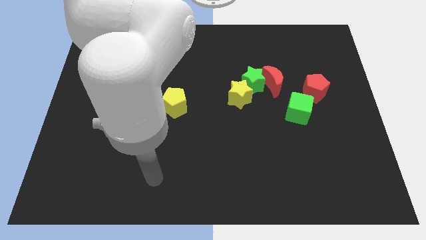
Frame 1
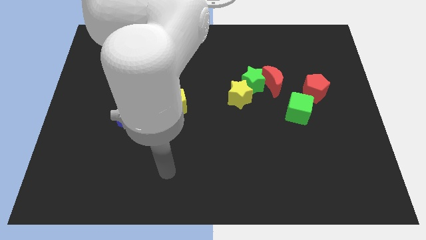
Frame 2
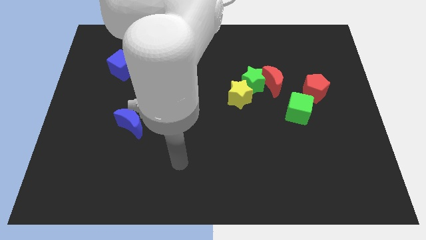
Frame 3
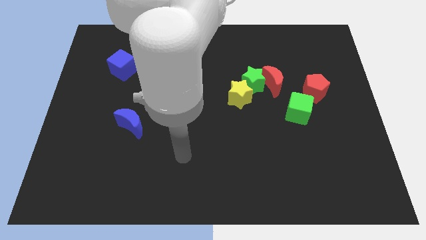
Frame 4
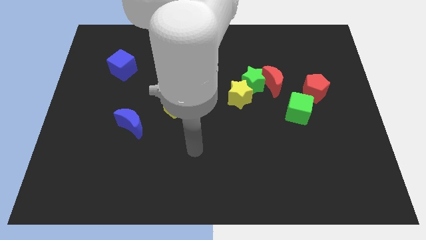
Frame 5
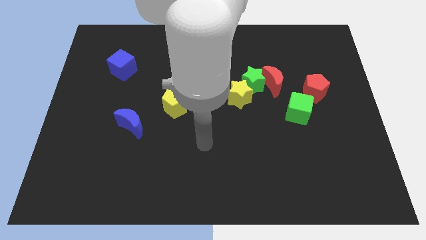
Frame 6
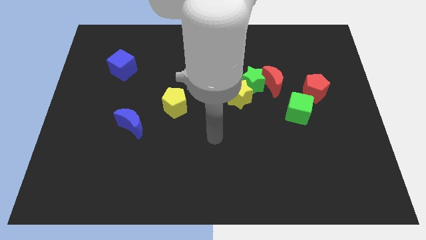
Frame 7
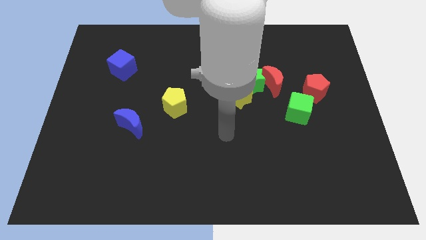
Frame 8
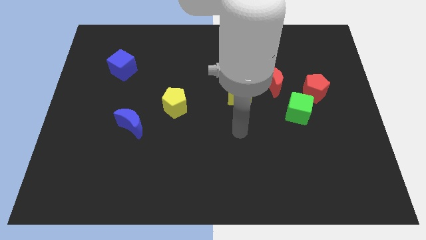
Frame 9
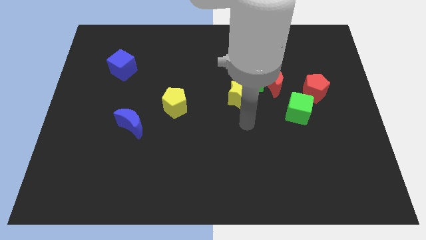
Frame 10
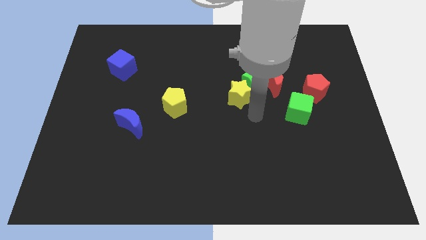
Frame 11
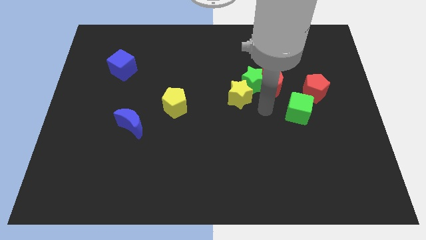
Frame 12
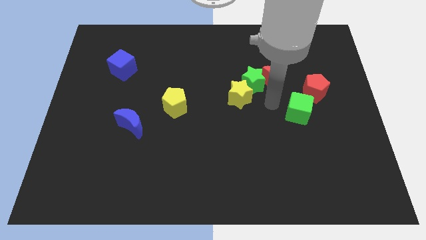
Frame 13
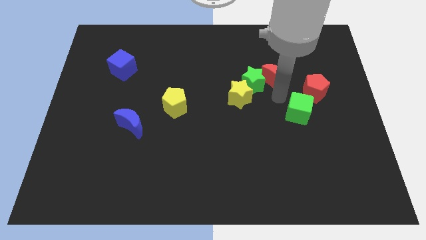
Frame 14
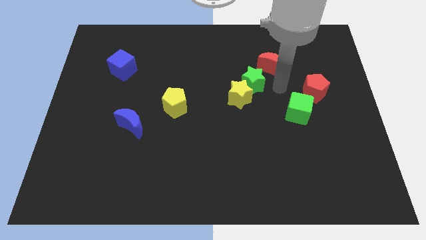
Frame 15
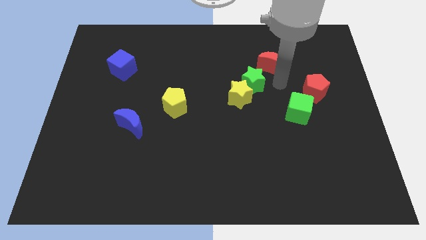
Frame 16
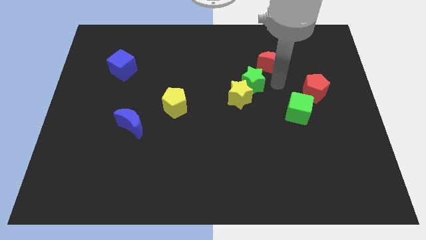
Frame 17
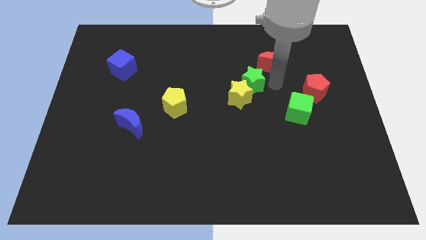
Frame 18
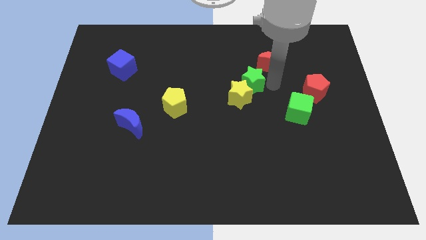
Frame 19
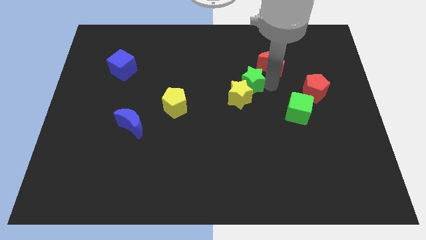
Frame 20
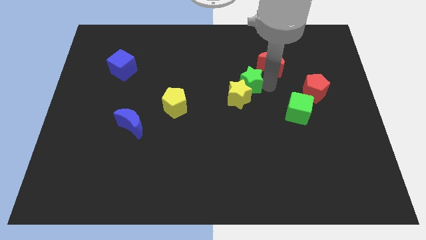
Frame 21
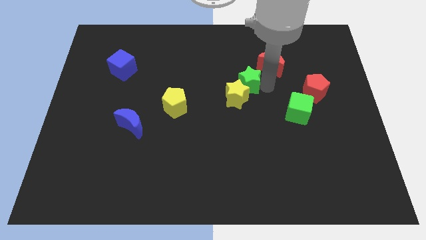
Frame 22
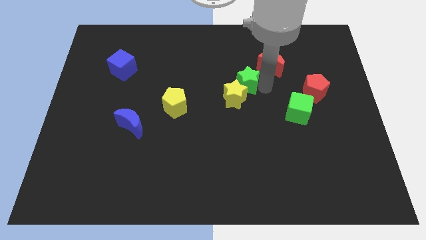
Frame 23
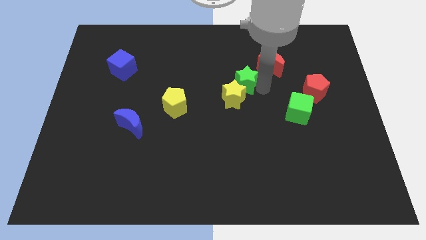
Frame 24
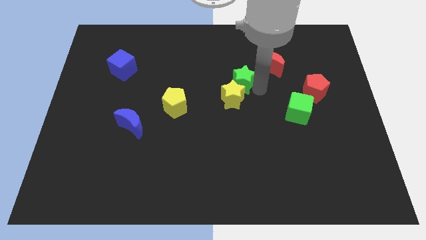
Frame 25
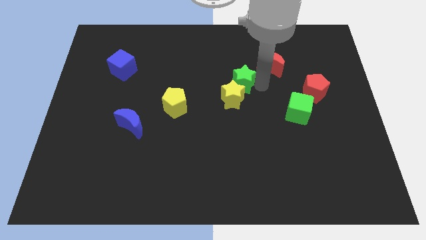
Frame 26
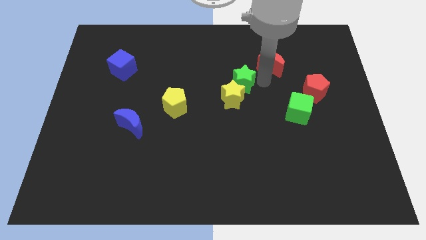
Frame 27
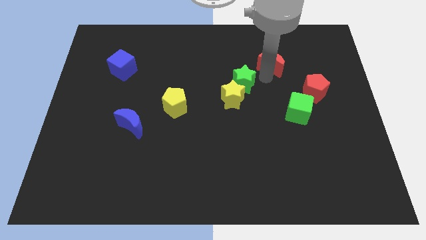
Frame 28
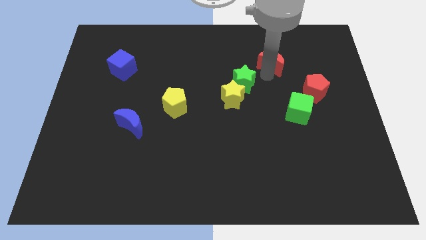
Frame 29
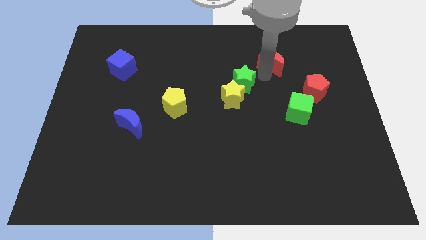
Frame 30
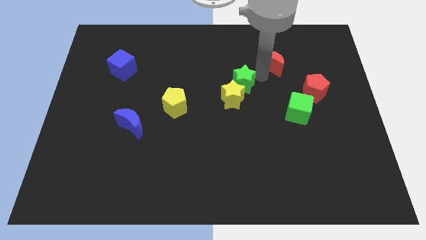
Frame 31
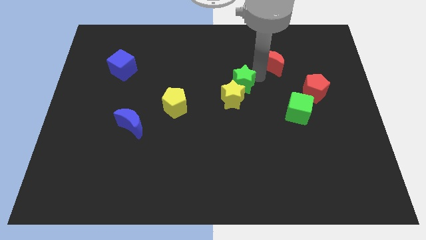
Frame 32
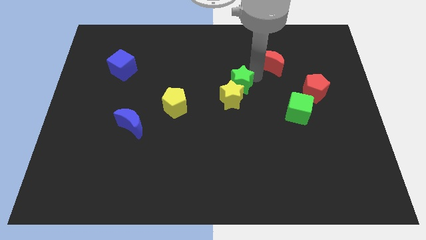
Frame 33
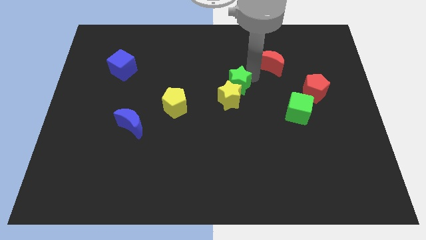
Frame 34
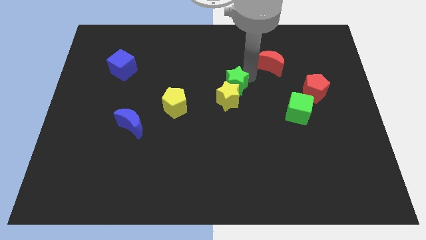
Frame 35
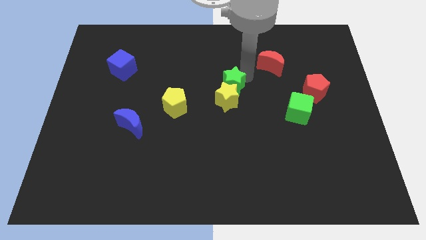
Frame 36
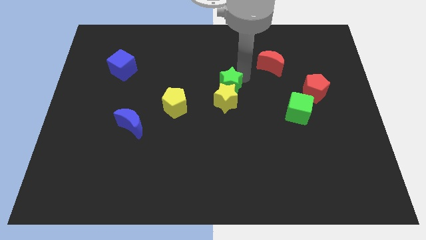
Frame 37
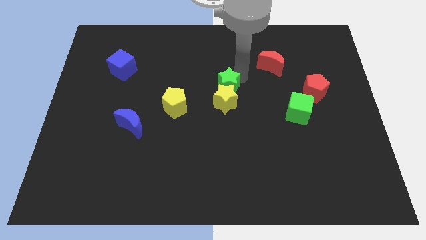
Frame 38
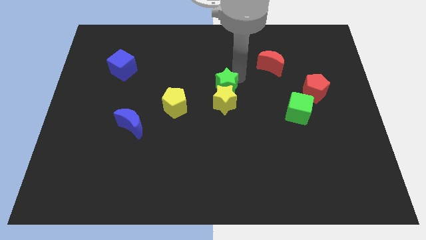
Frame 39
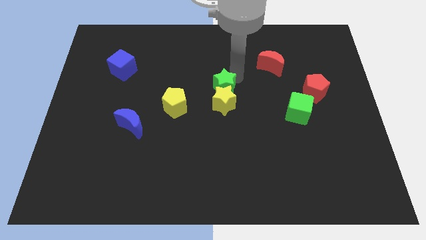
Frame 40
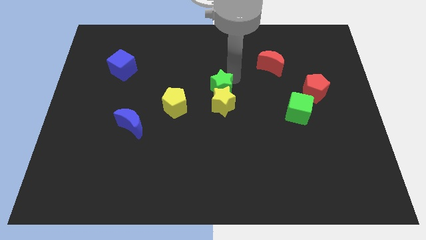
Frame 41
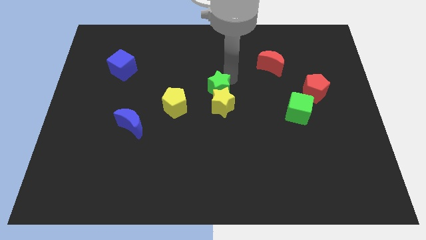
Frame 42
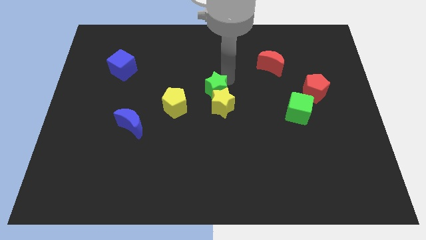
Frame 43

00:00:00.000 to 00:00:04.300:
slightly move the green star diagonally down and to the left

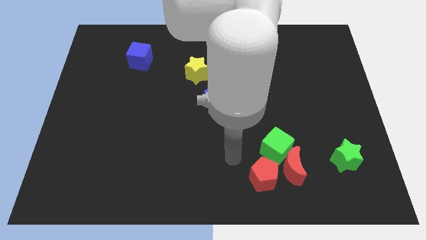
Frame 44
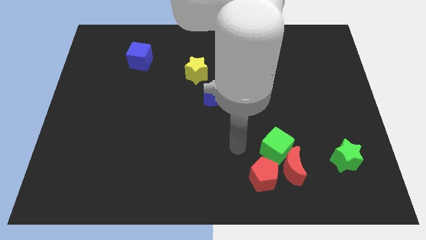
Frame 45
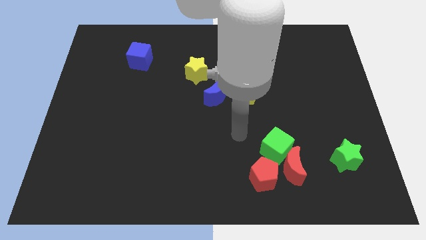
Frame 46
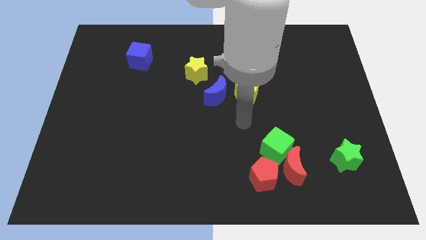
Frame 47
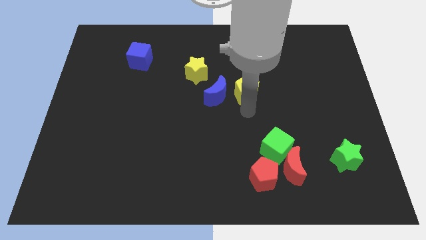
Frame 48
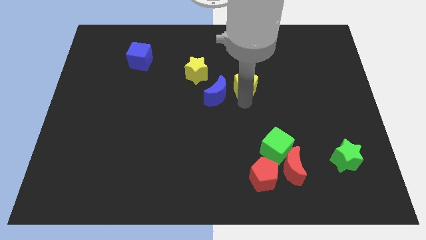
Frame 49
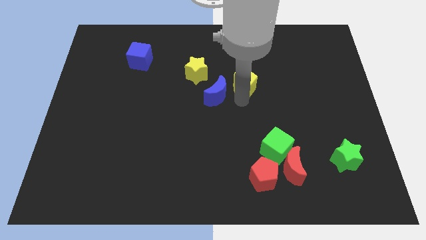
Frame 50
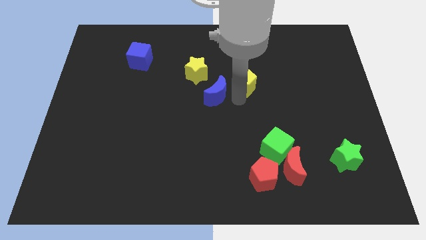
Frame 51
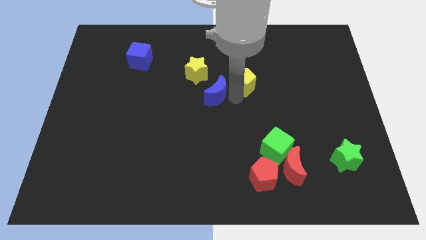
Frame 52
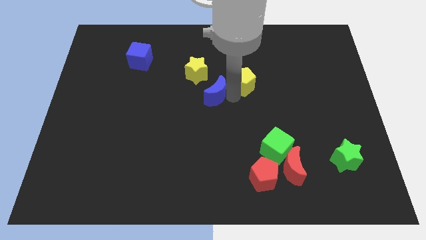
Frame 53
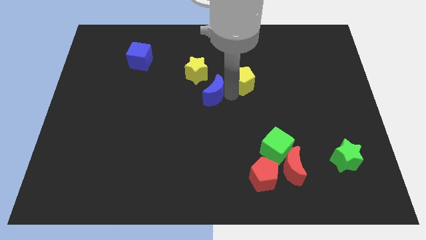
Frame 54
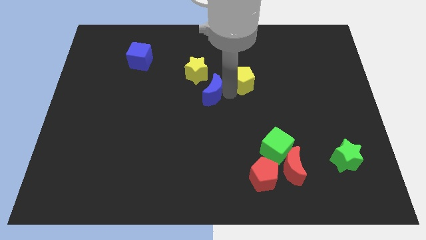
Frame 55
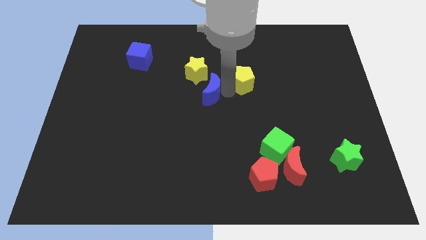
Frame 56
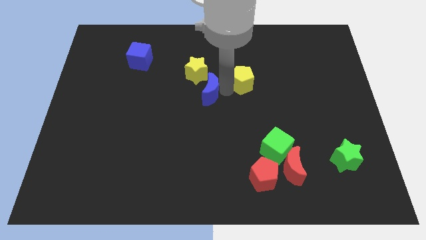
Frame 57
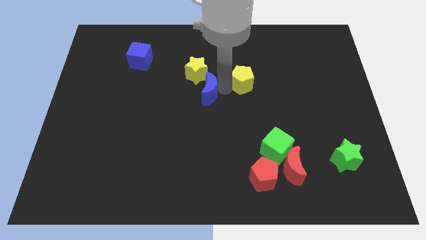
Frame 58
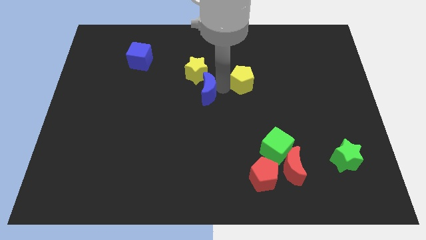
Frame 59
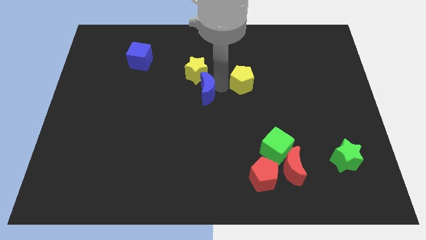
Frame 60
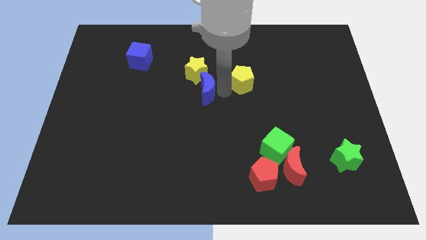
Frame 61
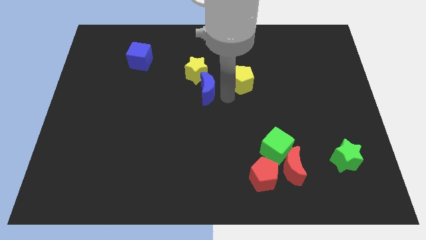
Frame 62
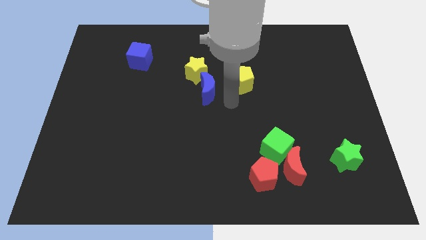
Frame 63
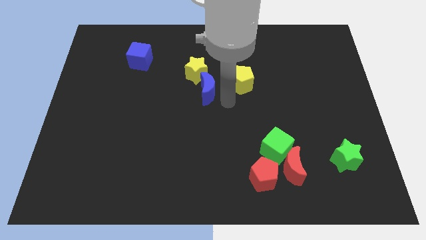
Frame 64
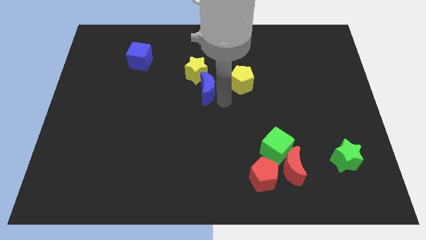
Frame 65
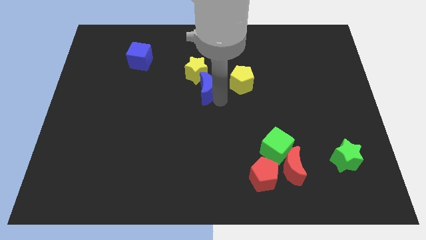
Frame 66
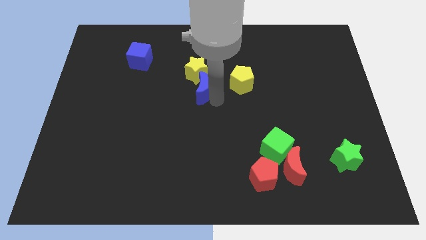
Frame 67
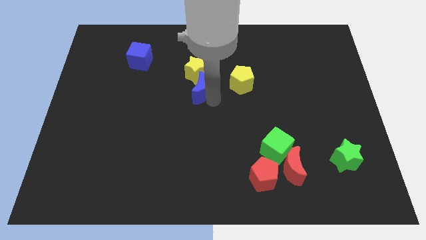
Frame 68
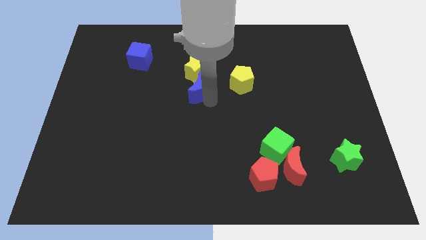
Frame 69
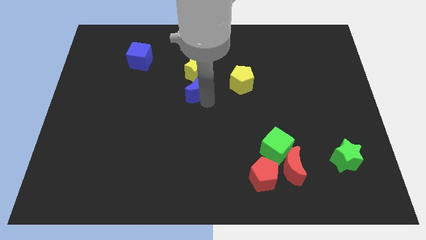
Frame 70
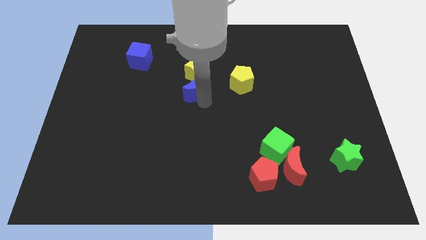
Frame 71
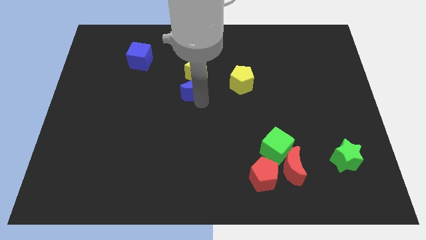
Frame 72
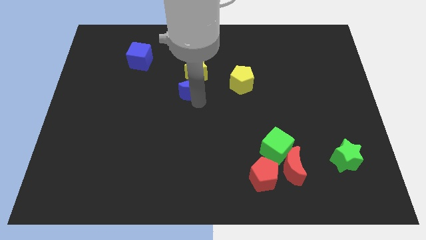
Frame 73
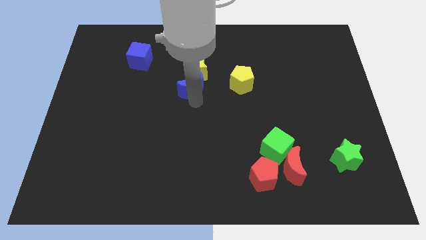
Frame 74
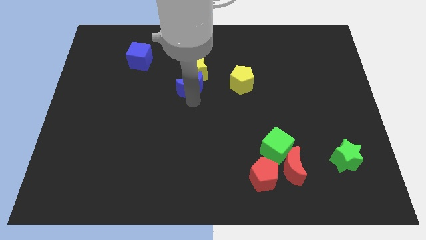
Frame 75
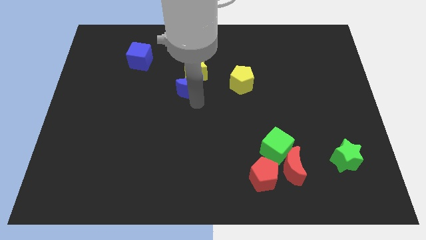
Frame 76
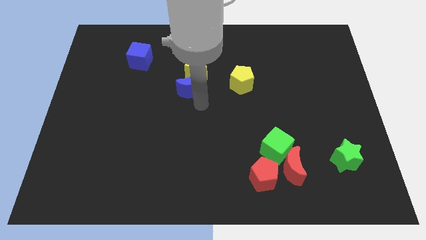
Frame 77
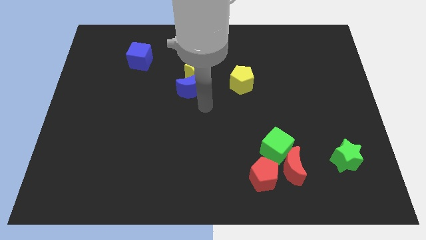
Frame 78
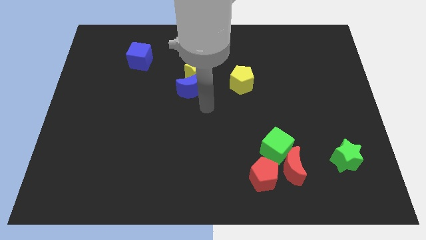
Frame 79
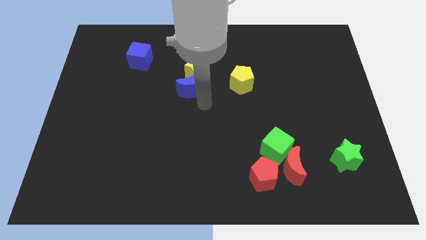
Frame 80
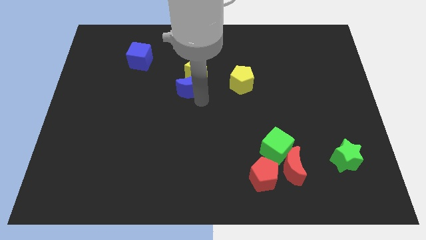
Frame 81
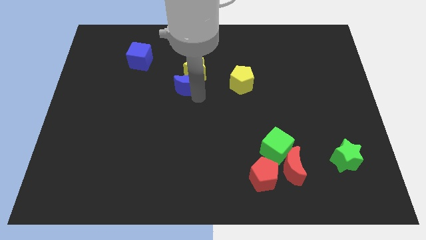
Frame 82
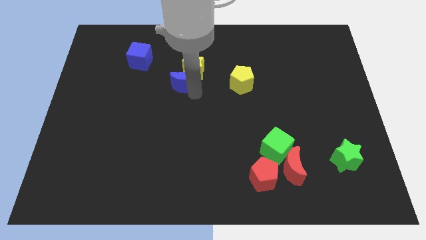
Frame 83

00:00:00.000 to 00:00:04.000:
slightly push the blue moon upwards and then left

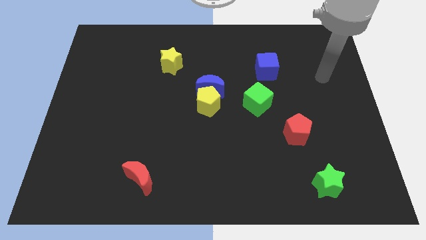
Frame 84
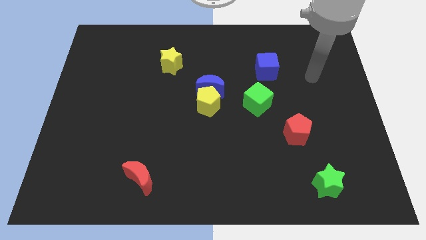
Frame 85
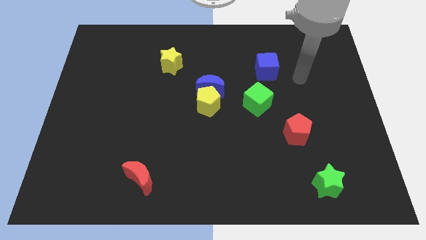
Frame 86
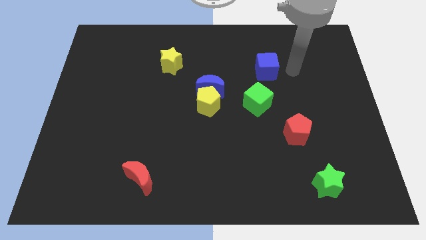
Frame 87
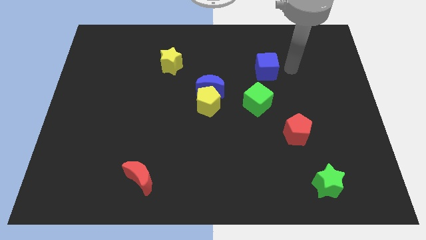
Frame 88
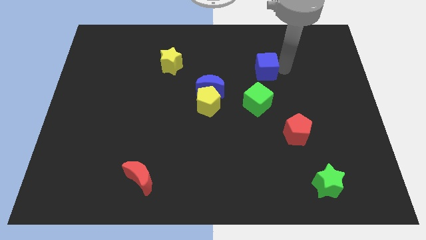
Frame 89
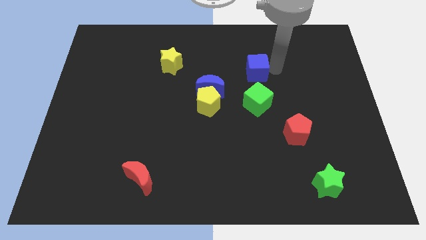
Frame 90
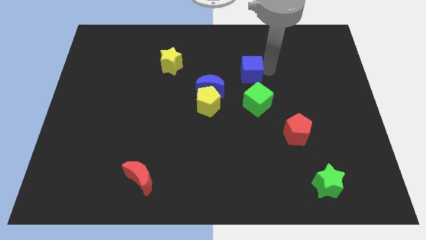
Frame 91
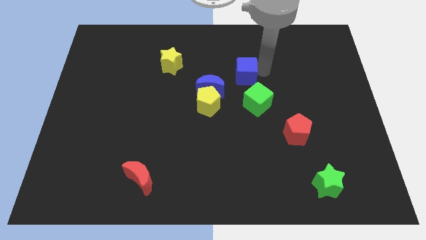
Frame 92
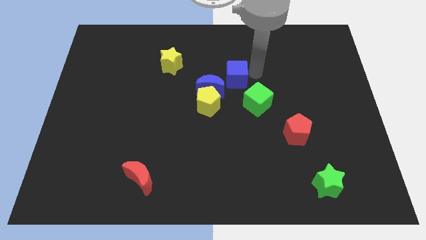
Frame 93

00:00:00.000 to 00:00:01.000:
push the blue cube to the left a bit
